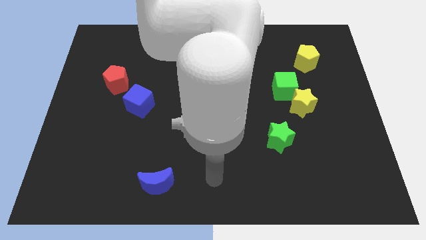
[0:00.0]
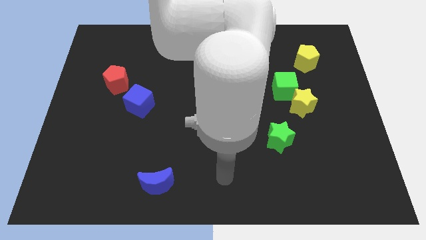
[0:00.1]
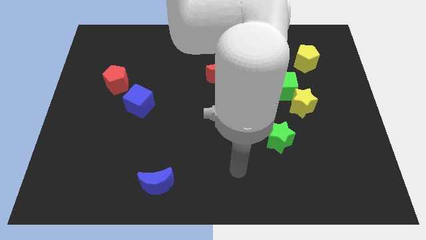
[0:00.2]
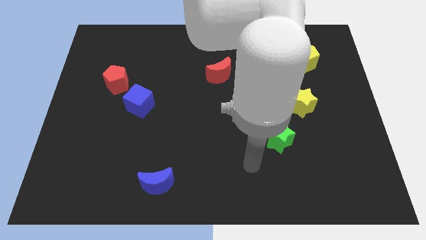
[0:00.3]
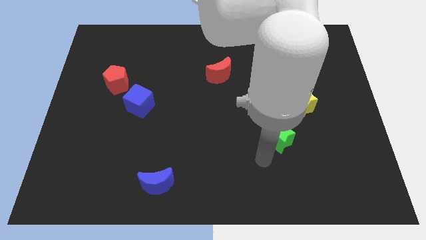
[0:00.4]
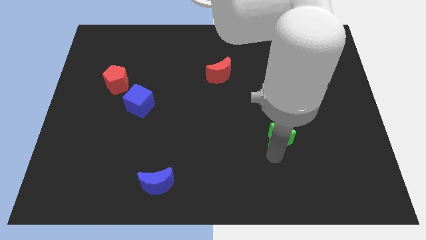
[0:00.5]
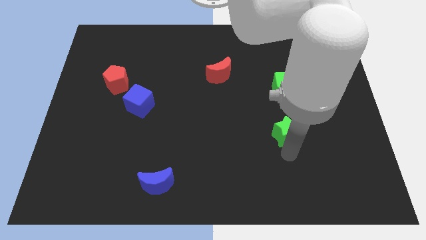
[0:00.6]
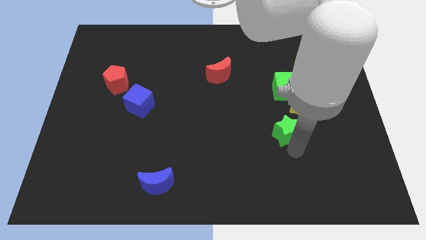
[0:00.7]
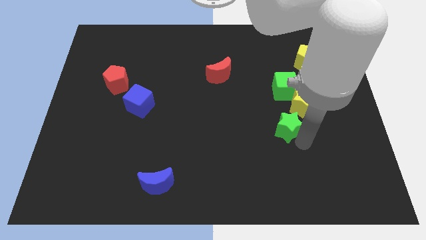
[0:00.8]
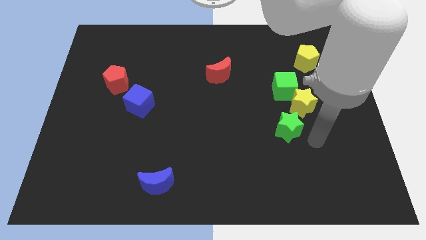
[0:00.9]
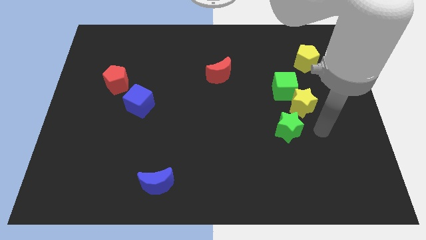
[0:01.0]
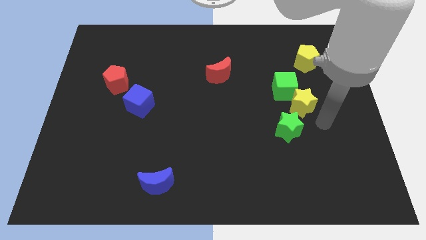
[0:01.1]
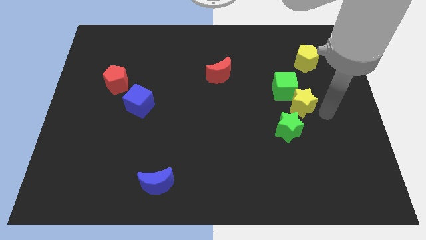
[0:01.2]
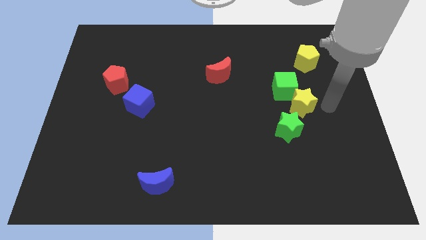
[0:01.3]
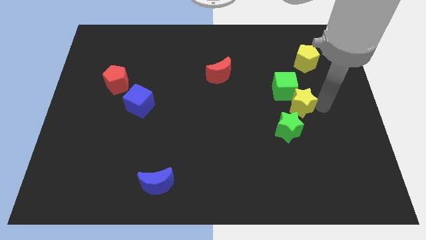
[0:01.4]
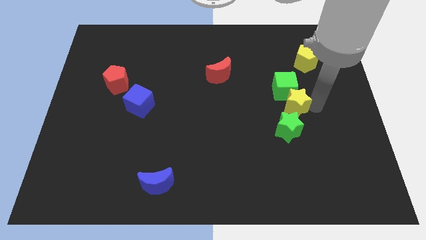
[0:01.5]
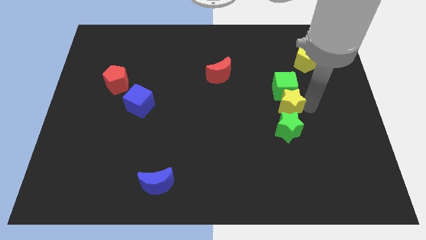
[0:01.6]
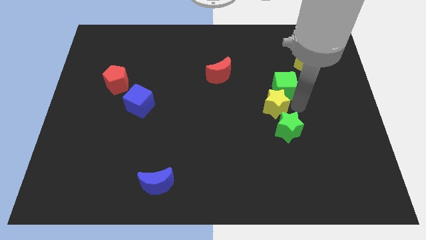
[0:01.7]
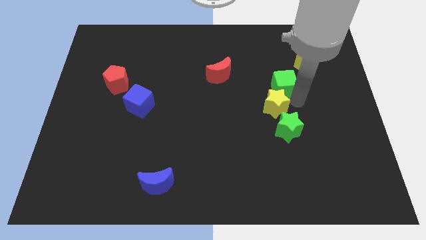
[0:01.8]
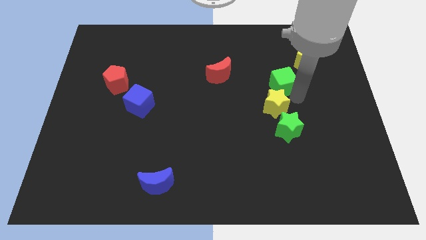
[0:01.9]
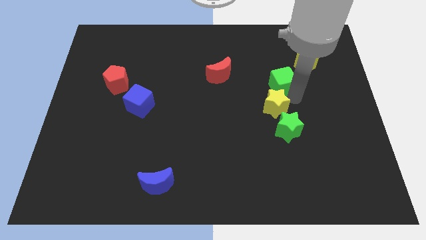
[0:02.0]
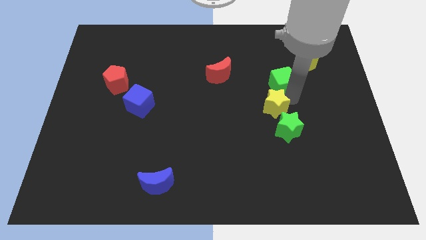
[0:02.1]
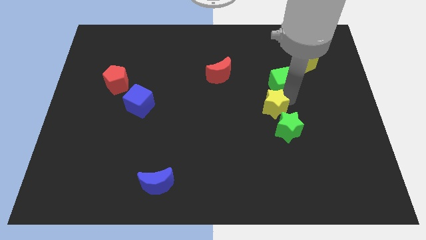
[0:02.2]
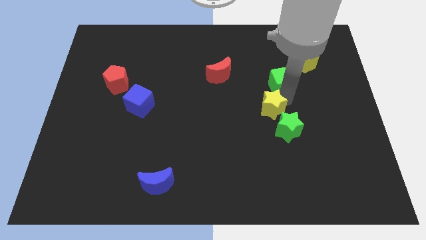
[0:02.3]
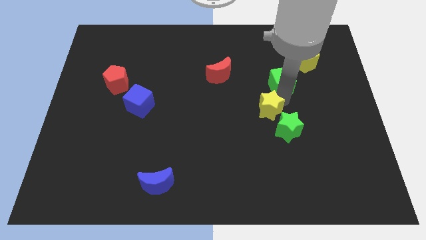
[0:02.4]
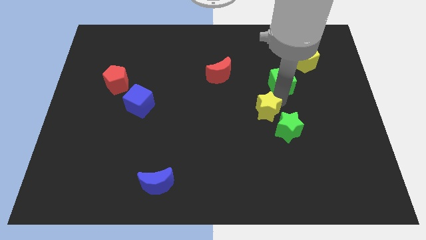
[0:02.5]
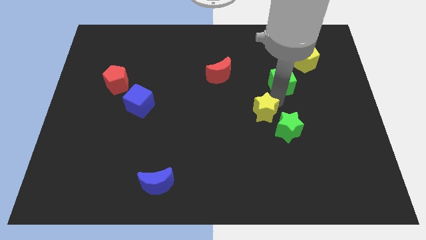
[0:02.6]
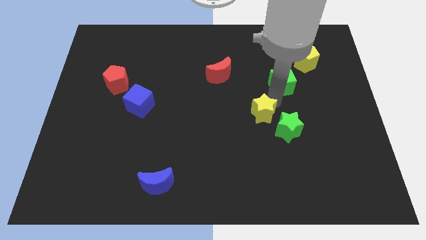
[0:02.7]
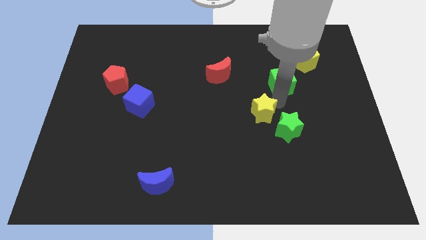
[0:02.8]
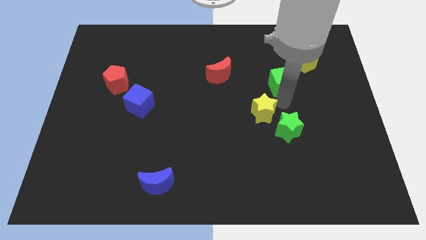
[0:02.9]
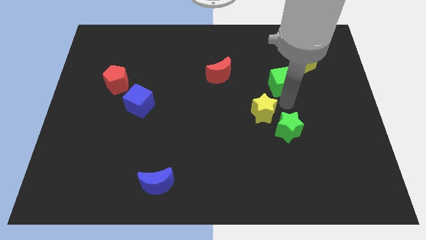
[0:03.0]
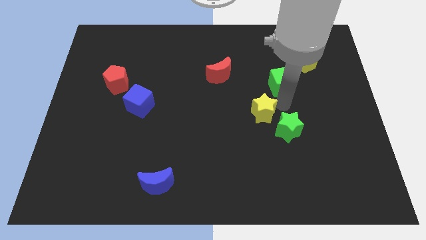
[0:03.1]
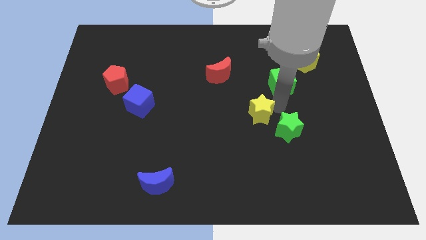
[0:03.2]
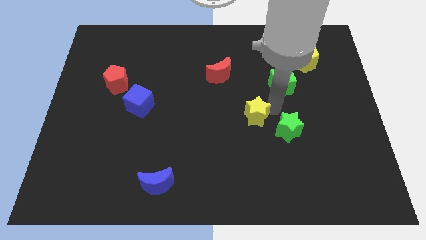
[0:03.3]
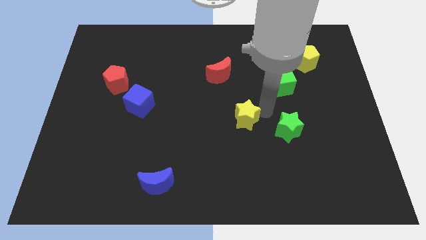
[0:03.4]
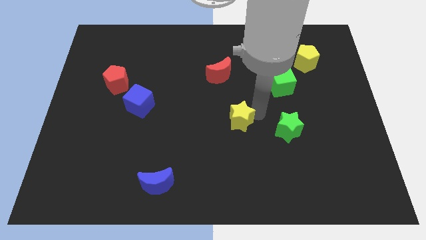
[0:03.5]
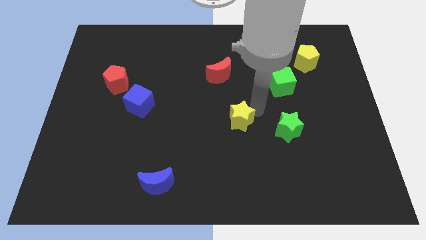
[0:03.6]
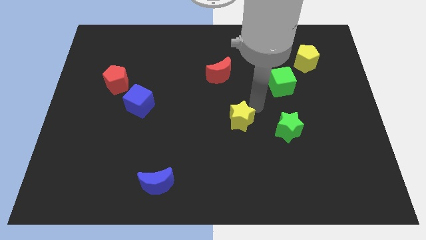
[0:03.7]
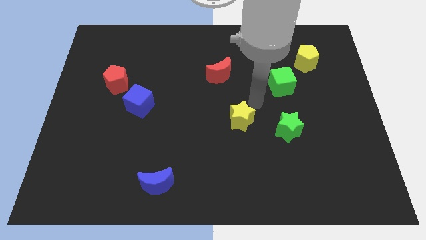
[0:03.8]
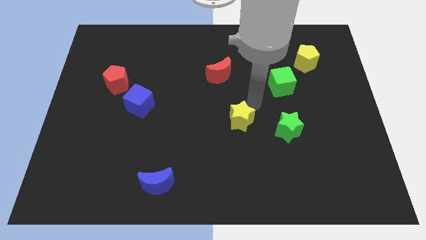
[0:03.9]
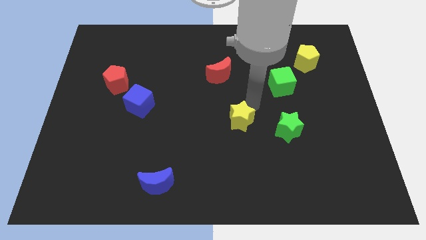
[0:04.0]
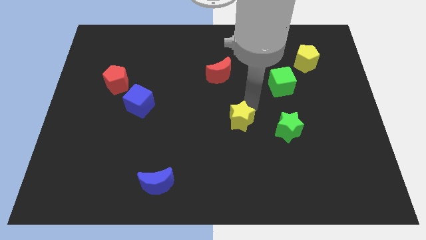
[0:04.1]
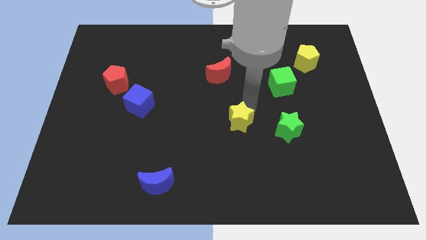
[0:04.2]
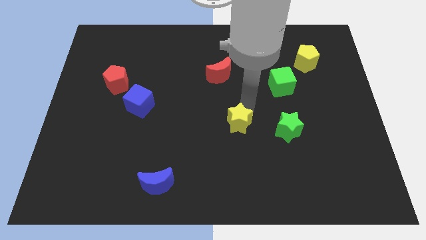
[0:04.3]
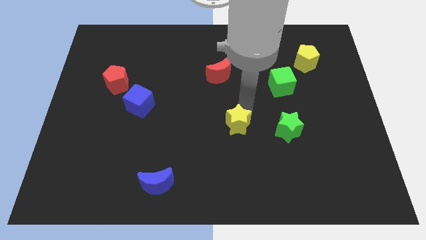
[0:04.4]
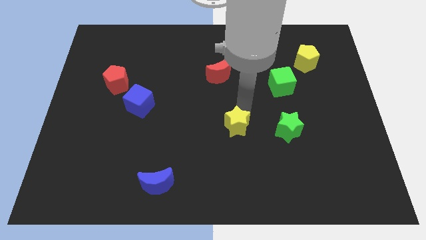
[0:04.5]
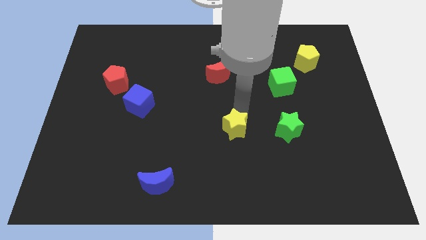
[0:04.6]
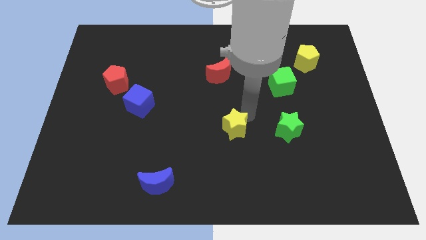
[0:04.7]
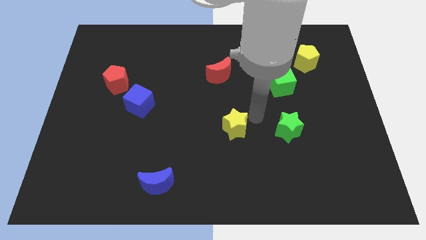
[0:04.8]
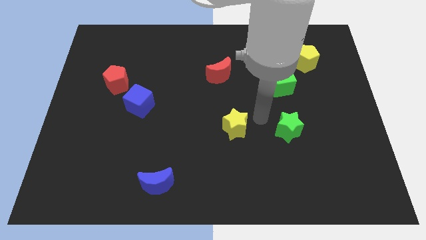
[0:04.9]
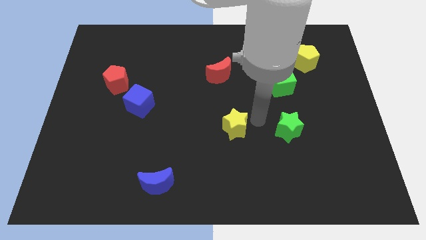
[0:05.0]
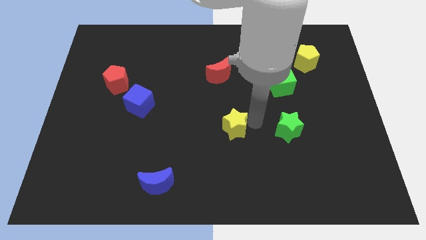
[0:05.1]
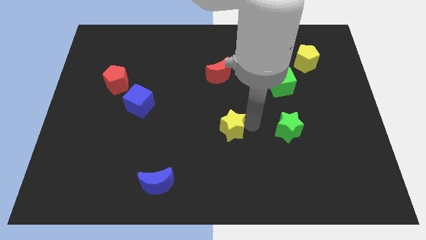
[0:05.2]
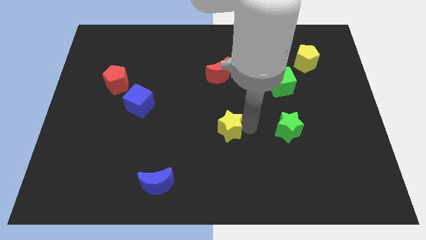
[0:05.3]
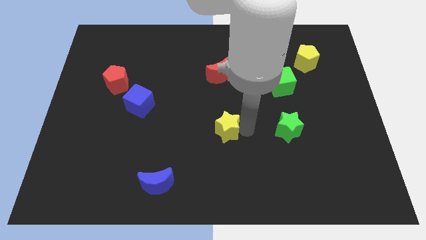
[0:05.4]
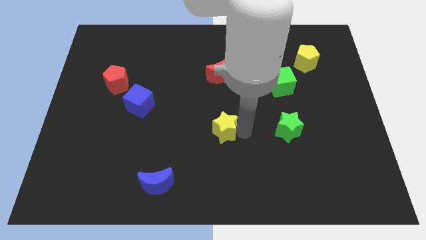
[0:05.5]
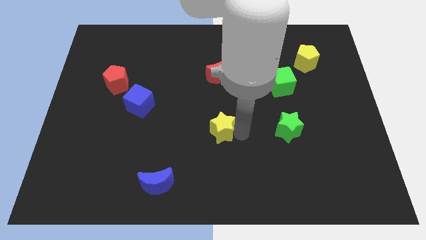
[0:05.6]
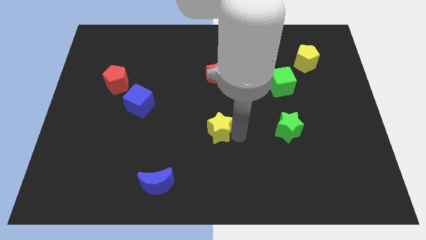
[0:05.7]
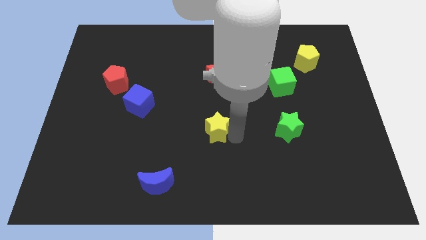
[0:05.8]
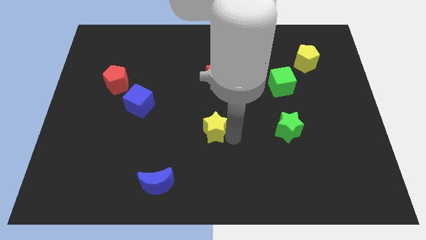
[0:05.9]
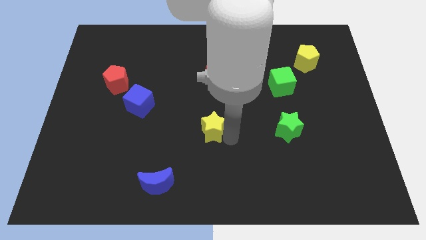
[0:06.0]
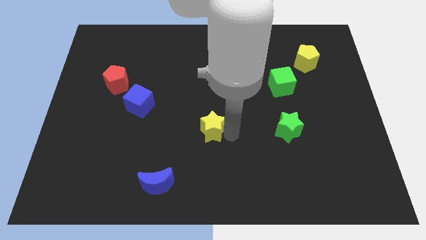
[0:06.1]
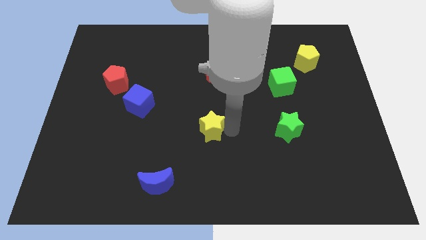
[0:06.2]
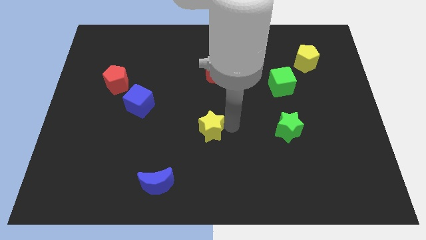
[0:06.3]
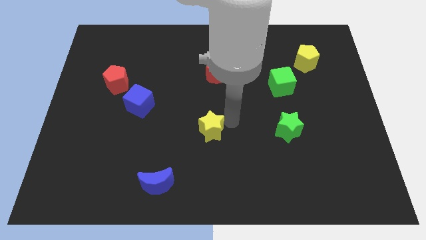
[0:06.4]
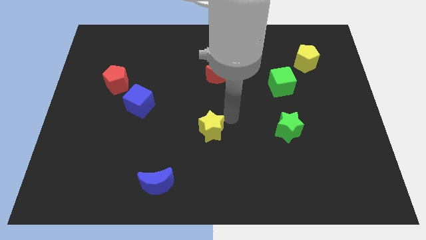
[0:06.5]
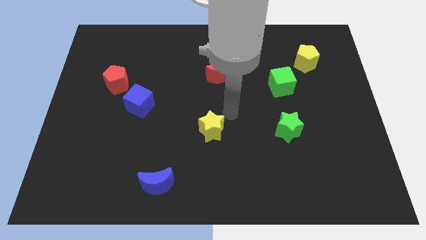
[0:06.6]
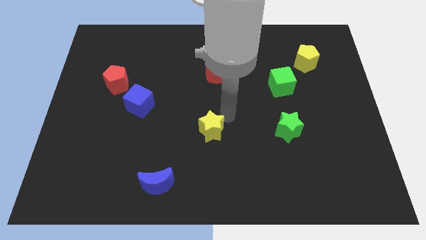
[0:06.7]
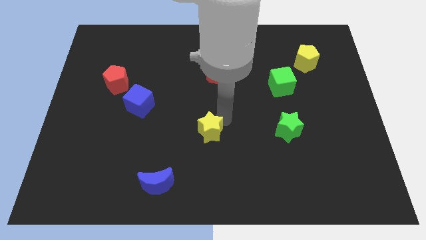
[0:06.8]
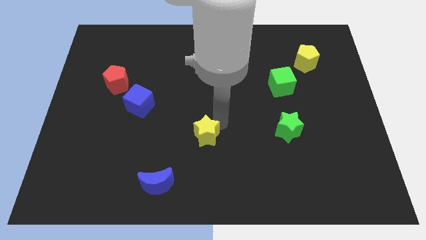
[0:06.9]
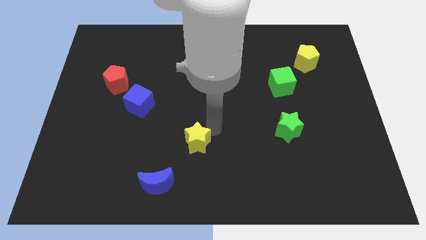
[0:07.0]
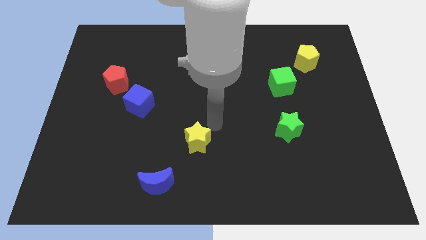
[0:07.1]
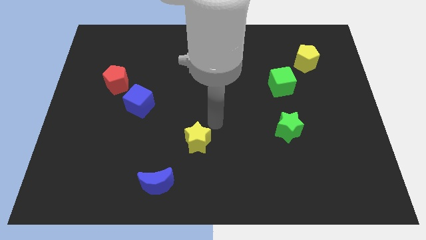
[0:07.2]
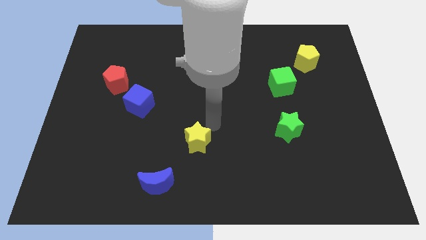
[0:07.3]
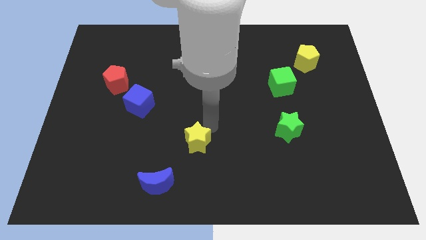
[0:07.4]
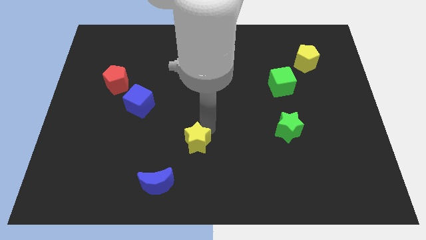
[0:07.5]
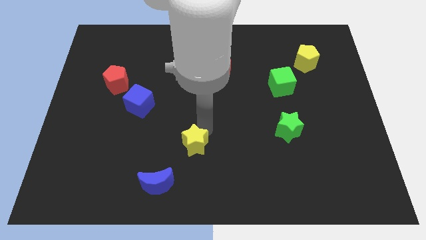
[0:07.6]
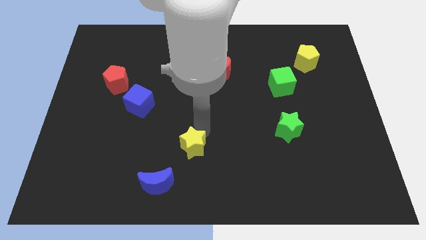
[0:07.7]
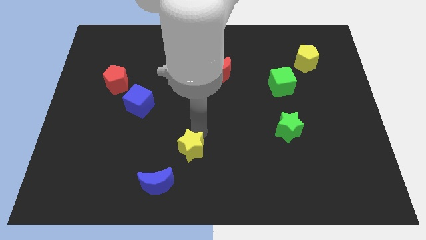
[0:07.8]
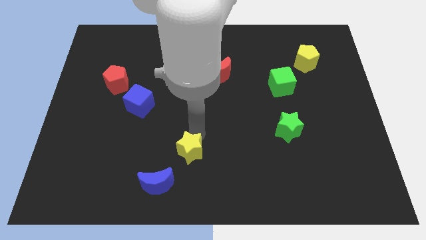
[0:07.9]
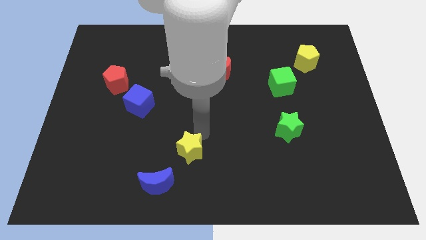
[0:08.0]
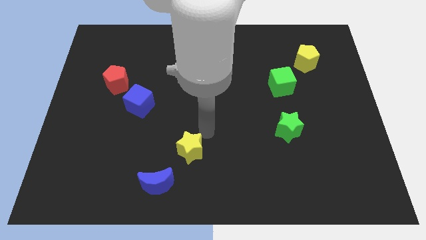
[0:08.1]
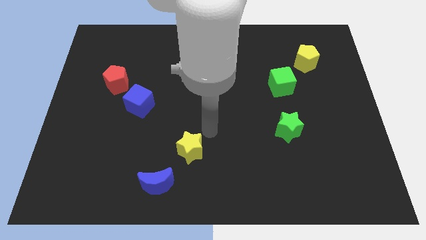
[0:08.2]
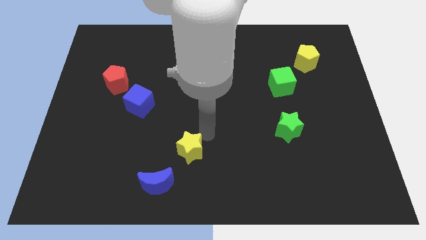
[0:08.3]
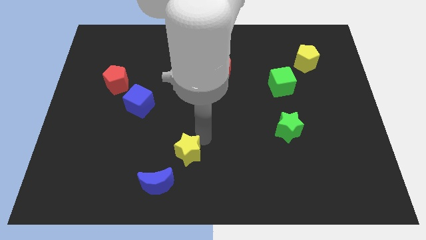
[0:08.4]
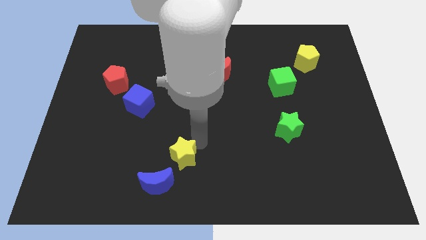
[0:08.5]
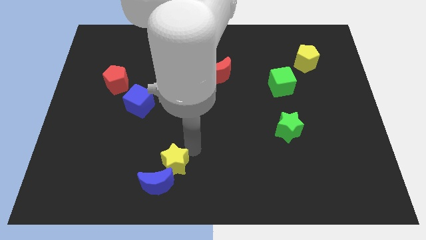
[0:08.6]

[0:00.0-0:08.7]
push the yellow star to the blue moon
